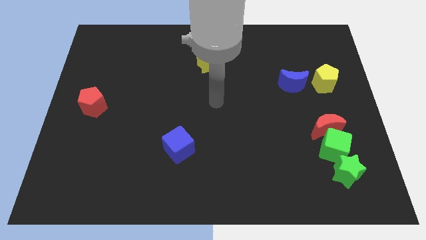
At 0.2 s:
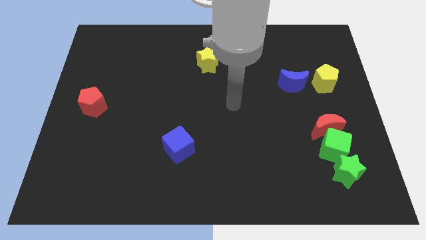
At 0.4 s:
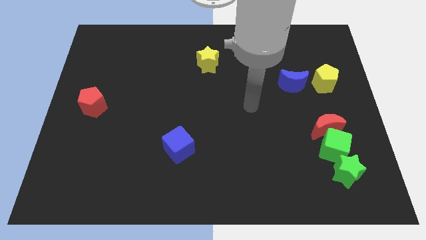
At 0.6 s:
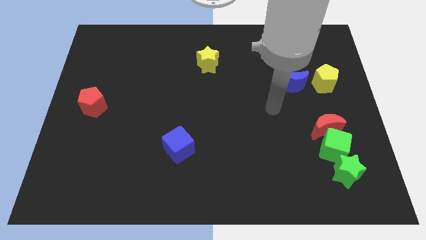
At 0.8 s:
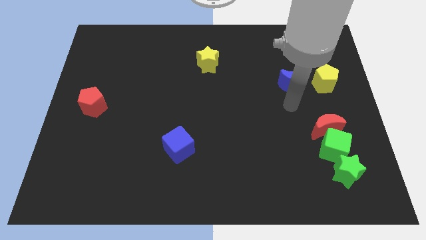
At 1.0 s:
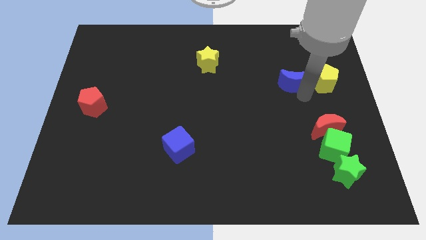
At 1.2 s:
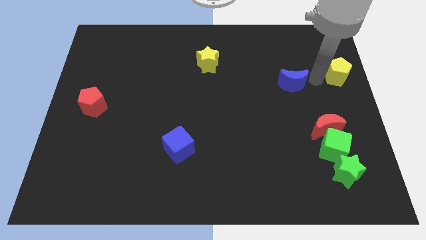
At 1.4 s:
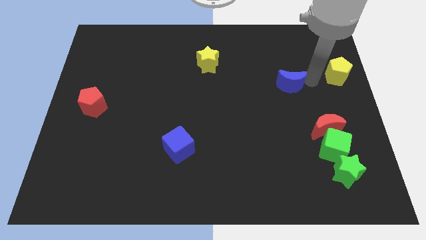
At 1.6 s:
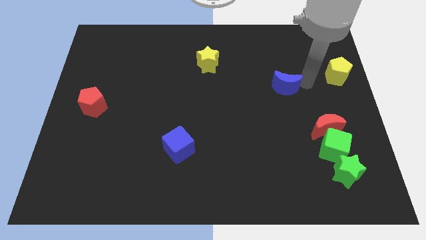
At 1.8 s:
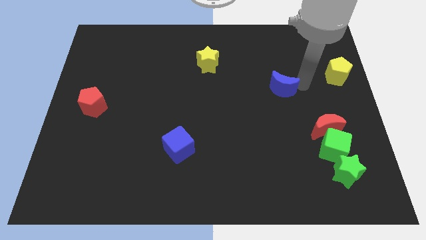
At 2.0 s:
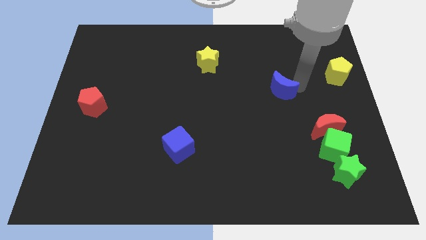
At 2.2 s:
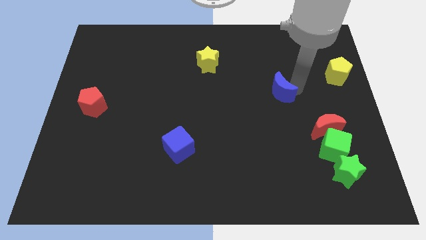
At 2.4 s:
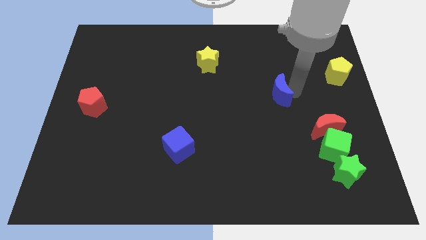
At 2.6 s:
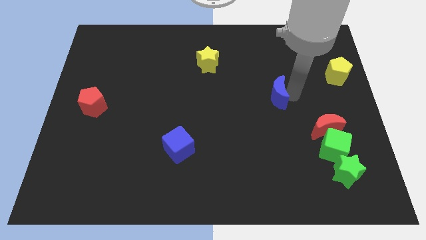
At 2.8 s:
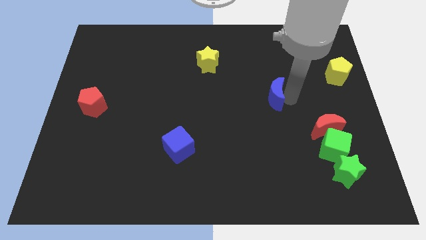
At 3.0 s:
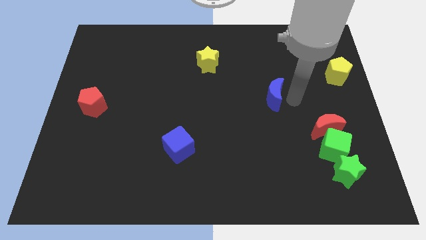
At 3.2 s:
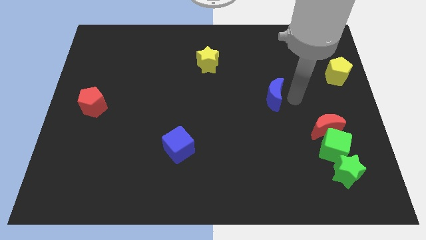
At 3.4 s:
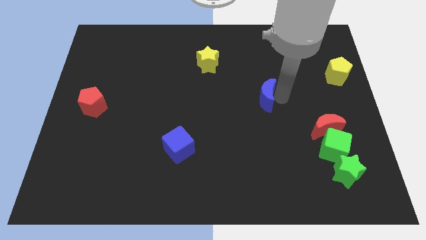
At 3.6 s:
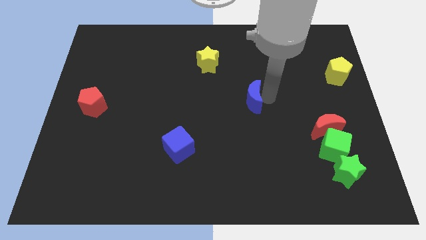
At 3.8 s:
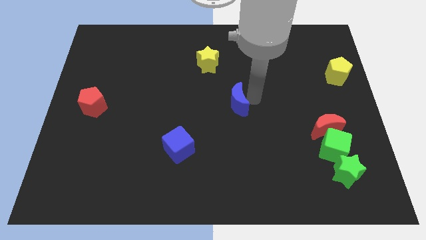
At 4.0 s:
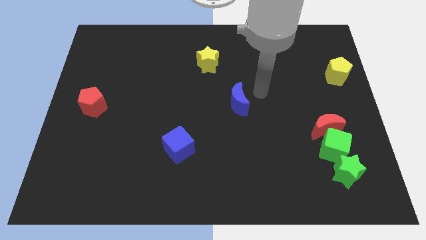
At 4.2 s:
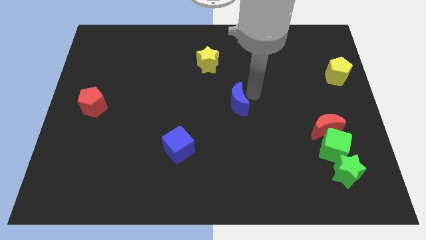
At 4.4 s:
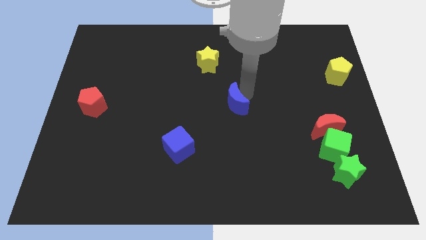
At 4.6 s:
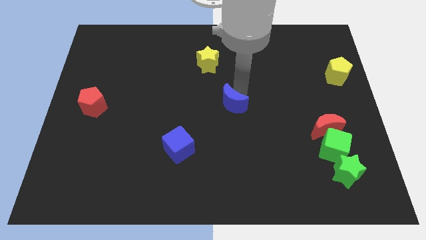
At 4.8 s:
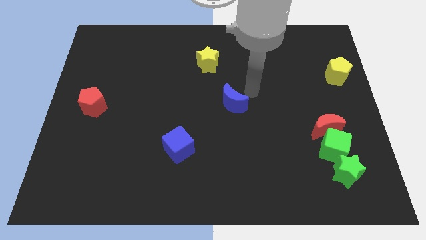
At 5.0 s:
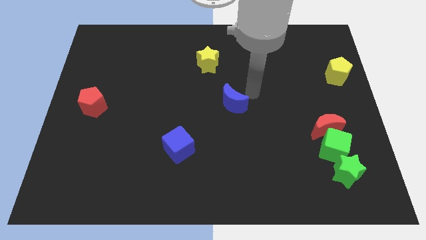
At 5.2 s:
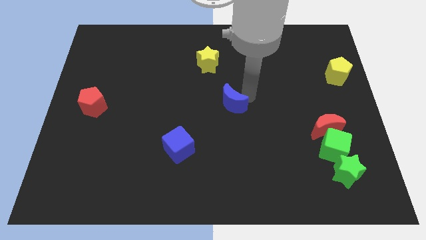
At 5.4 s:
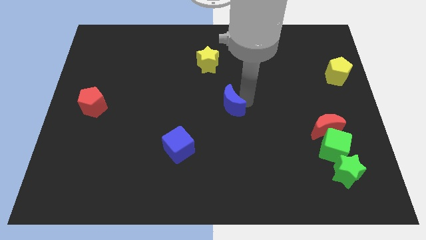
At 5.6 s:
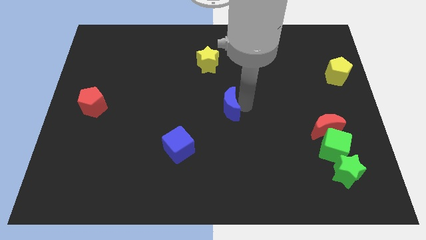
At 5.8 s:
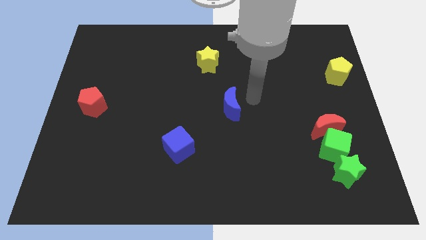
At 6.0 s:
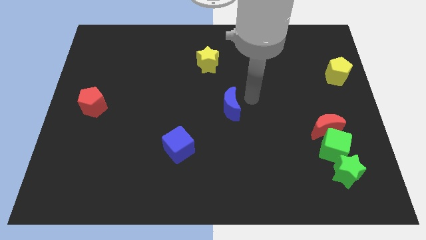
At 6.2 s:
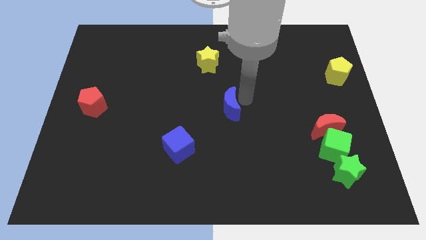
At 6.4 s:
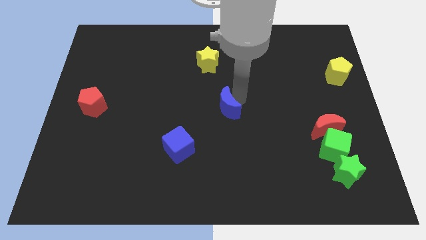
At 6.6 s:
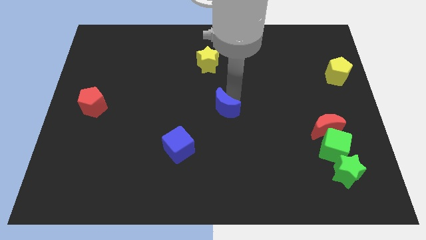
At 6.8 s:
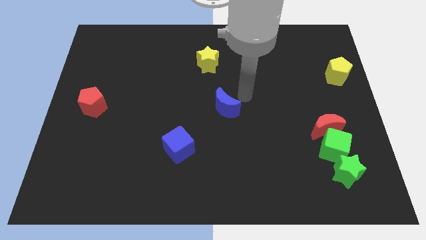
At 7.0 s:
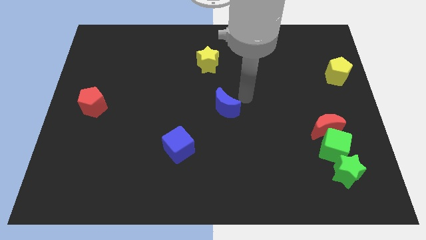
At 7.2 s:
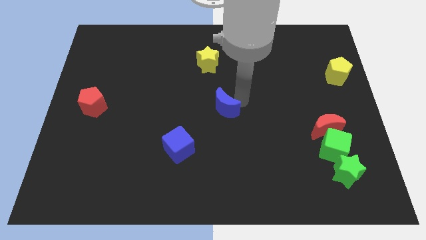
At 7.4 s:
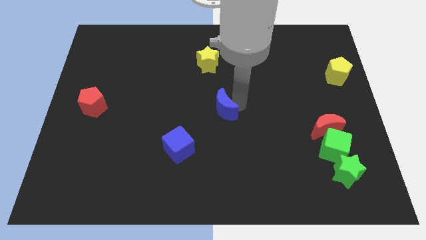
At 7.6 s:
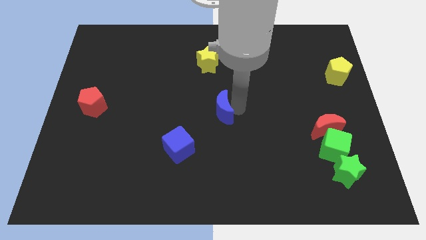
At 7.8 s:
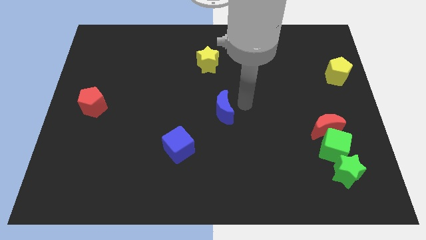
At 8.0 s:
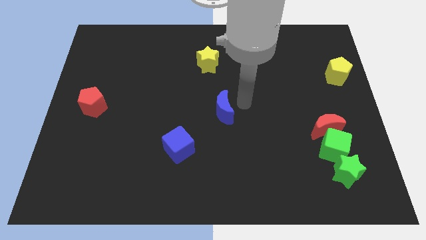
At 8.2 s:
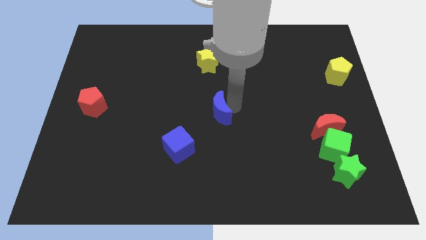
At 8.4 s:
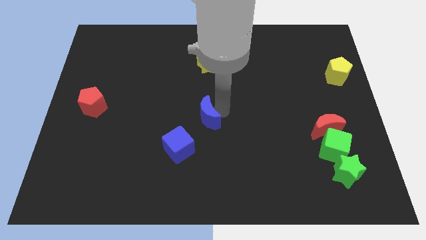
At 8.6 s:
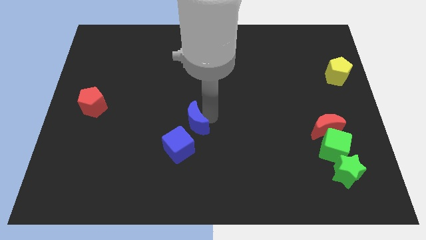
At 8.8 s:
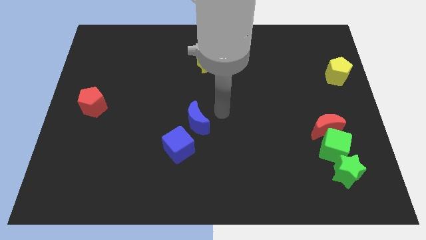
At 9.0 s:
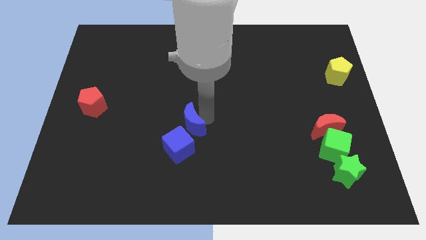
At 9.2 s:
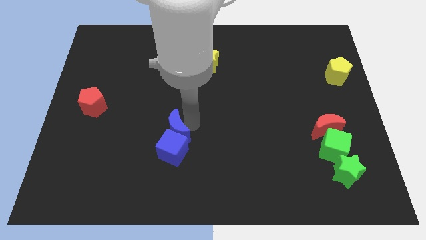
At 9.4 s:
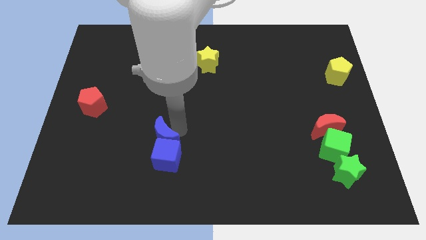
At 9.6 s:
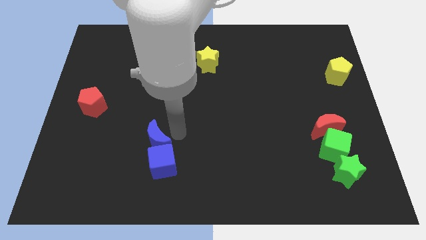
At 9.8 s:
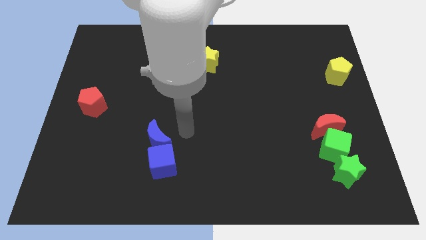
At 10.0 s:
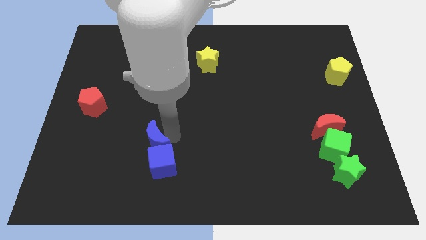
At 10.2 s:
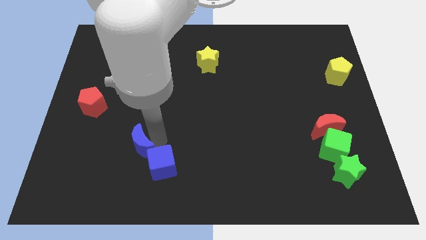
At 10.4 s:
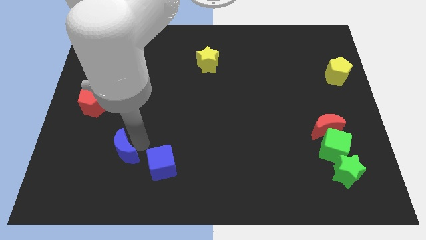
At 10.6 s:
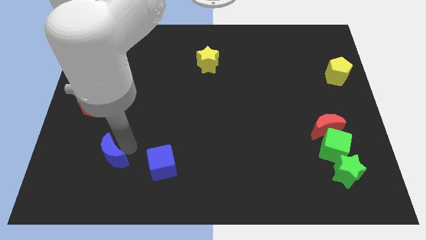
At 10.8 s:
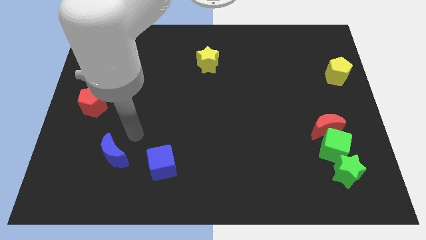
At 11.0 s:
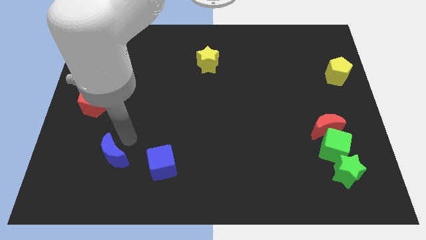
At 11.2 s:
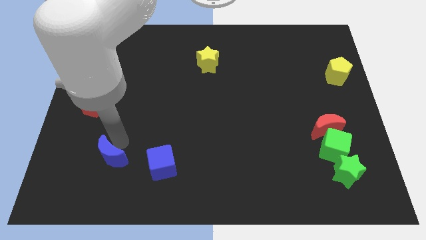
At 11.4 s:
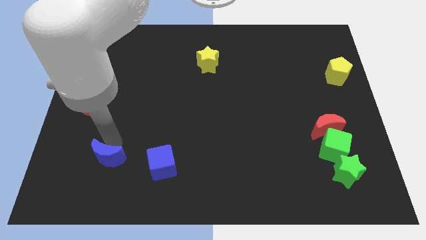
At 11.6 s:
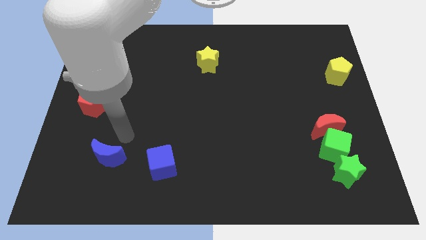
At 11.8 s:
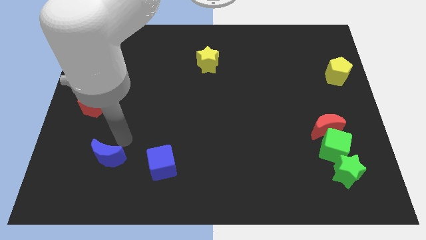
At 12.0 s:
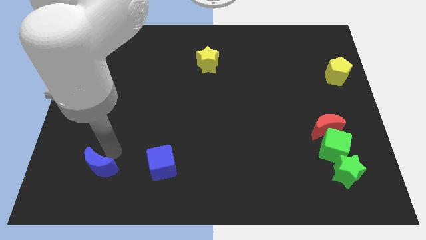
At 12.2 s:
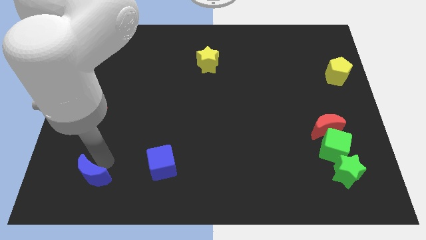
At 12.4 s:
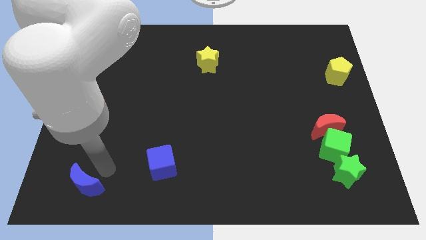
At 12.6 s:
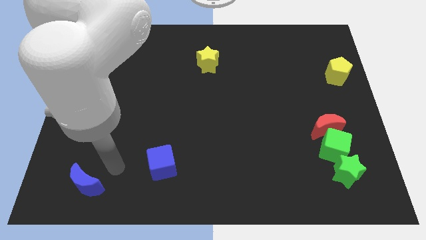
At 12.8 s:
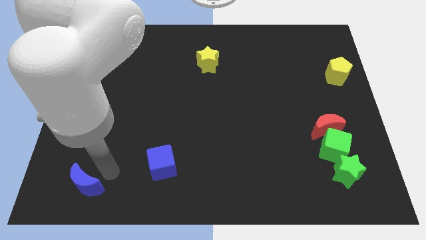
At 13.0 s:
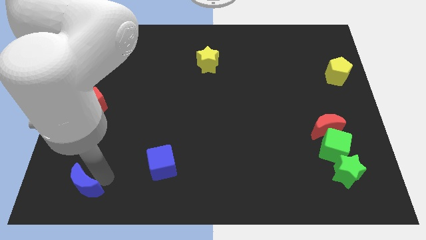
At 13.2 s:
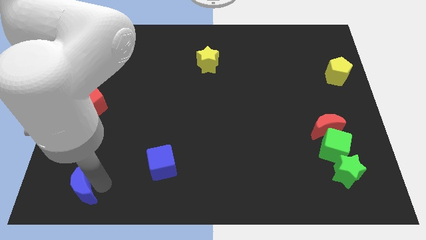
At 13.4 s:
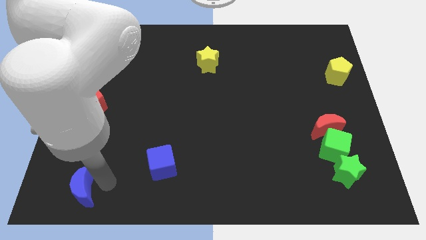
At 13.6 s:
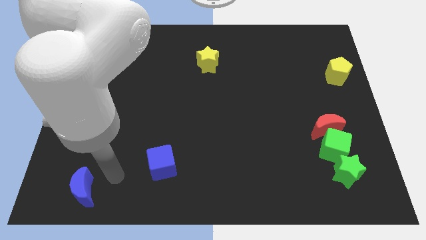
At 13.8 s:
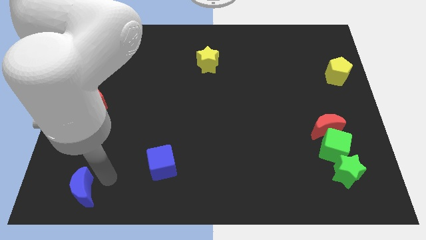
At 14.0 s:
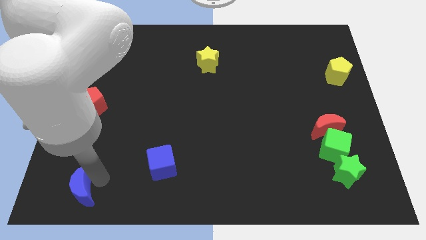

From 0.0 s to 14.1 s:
put the blue moon to the lower left corner

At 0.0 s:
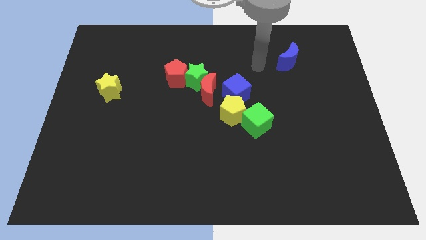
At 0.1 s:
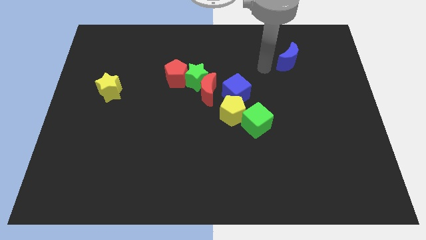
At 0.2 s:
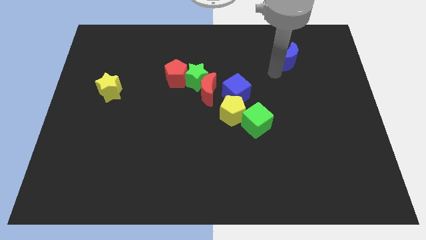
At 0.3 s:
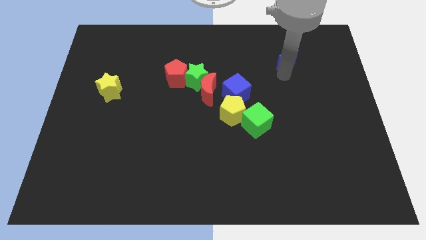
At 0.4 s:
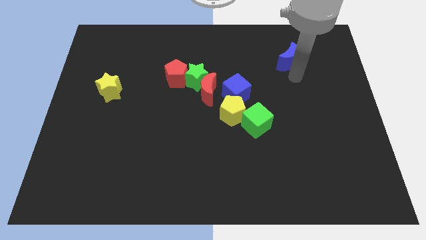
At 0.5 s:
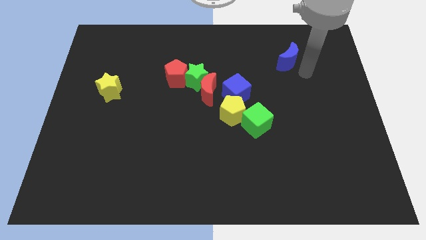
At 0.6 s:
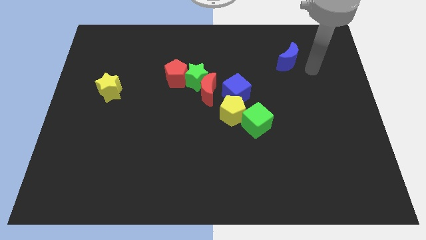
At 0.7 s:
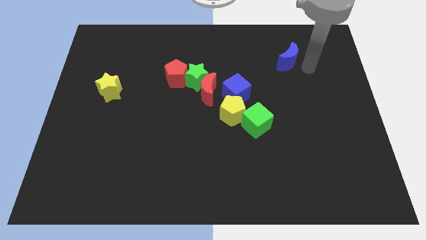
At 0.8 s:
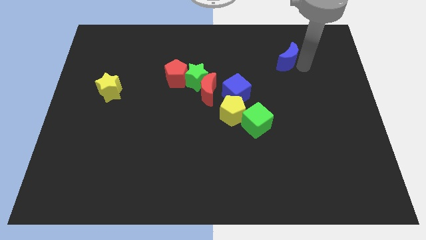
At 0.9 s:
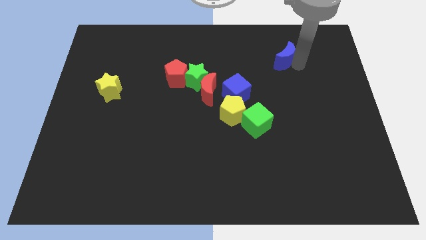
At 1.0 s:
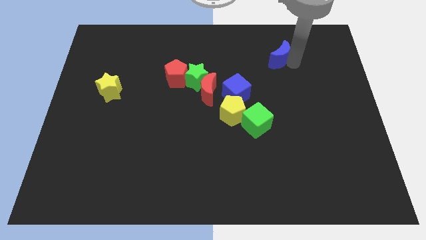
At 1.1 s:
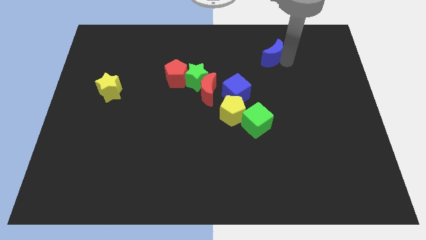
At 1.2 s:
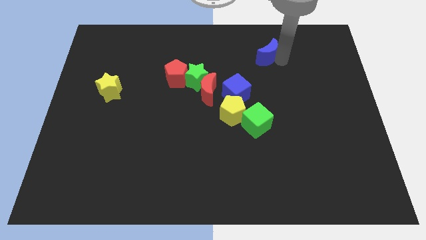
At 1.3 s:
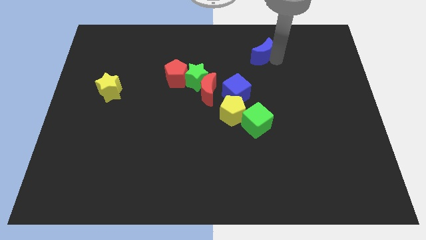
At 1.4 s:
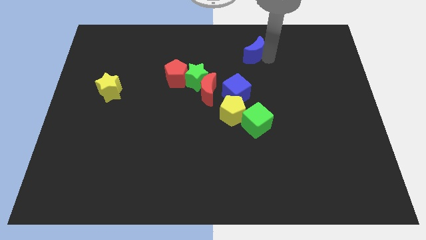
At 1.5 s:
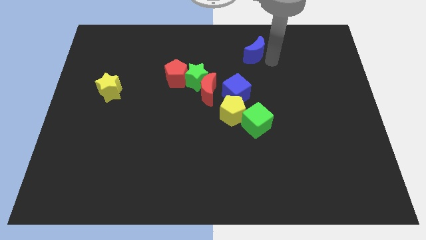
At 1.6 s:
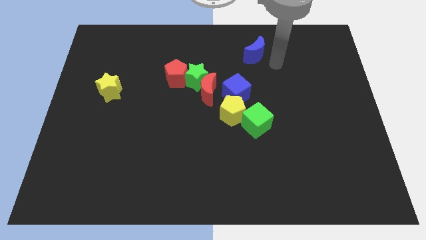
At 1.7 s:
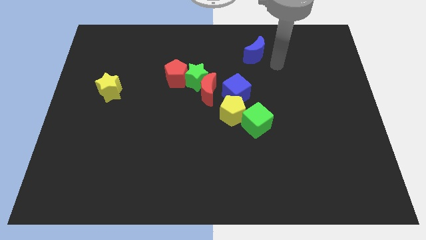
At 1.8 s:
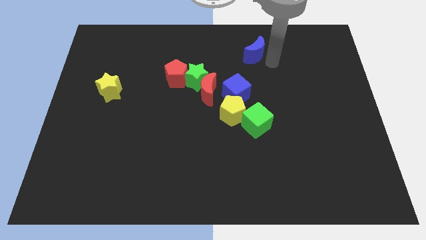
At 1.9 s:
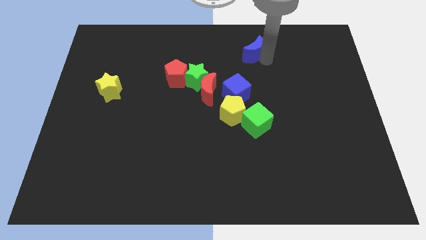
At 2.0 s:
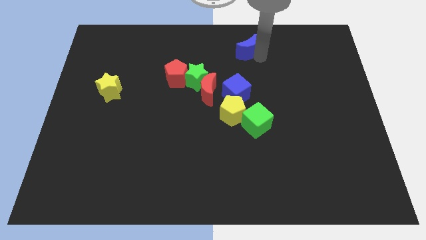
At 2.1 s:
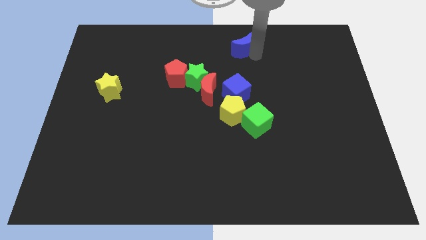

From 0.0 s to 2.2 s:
slide the blue moon to the top side
